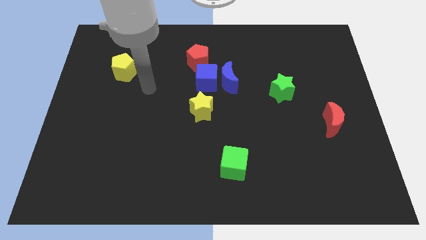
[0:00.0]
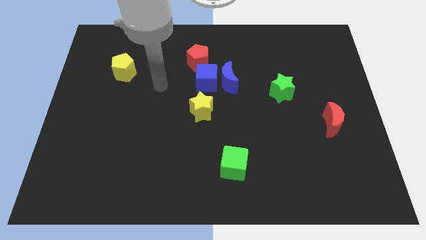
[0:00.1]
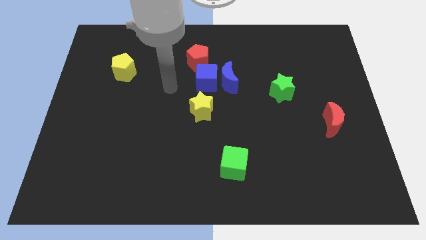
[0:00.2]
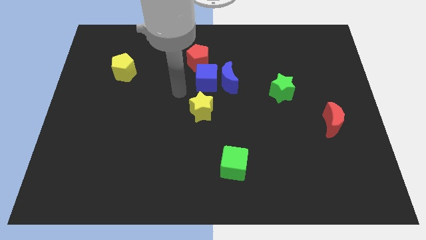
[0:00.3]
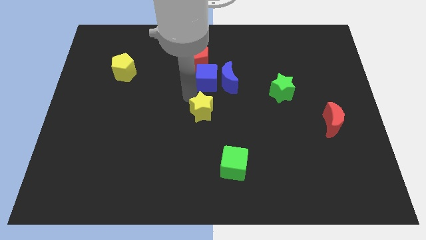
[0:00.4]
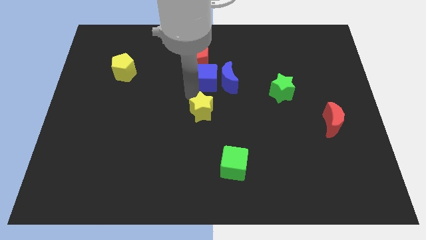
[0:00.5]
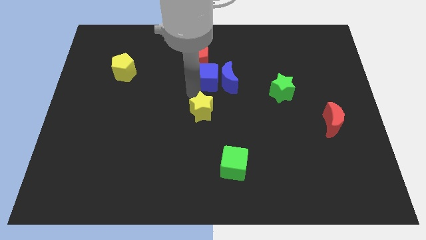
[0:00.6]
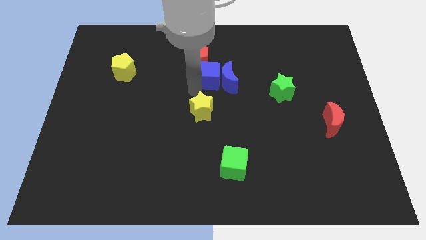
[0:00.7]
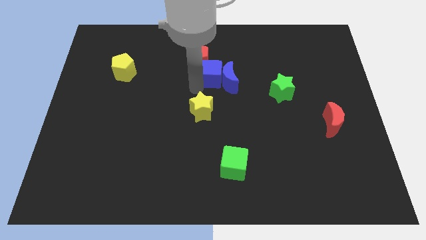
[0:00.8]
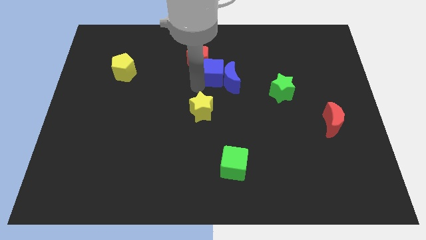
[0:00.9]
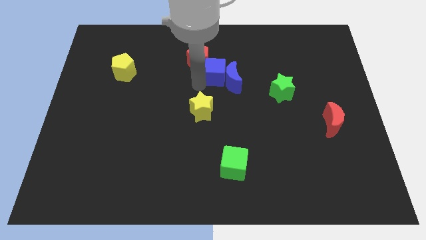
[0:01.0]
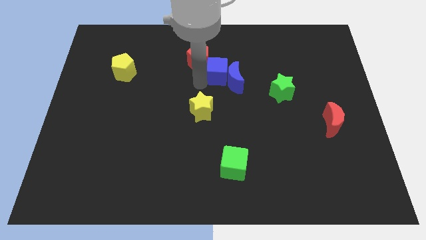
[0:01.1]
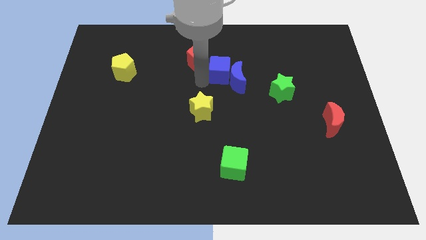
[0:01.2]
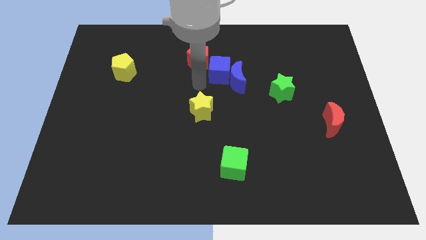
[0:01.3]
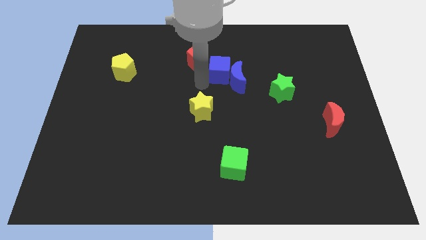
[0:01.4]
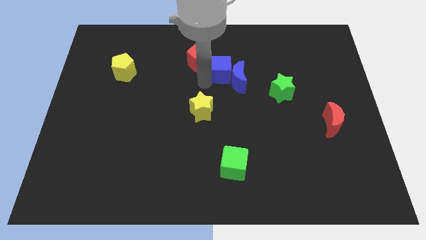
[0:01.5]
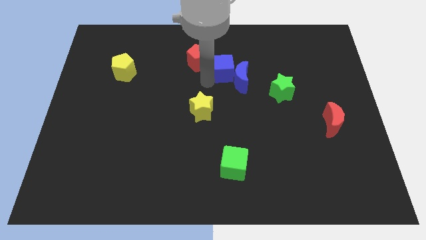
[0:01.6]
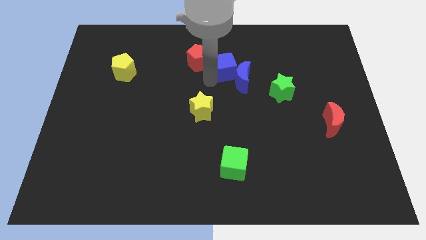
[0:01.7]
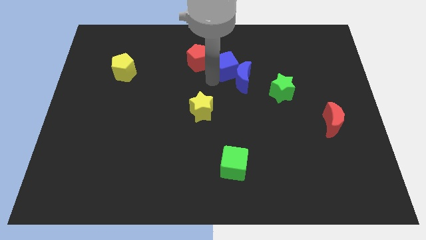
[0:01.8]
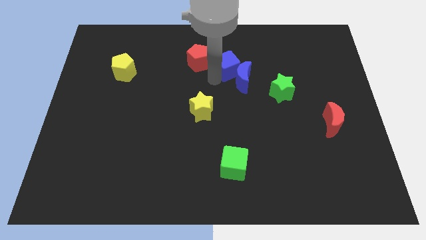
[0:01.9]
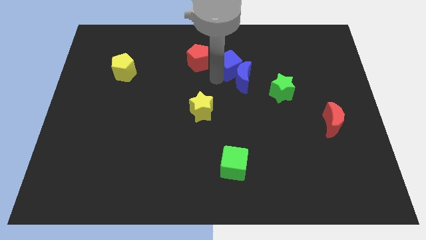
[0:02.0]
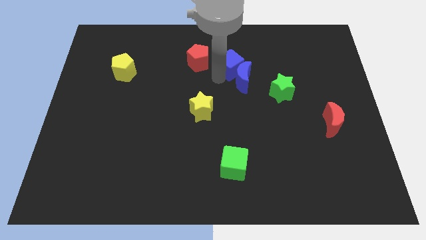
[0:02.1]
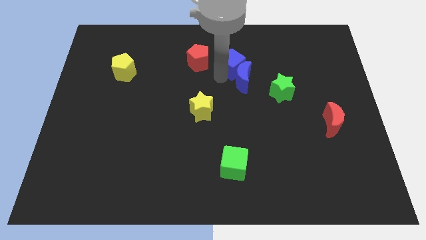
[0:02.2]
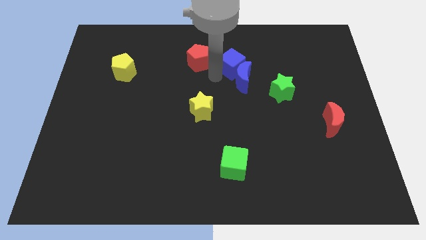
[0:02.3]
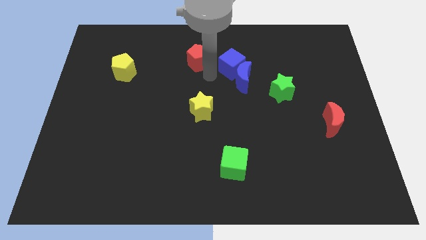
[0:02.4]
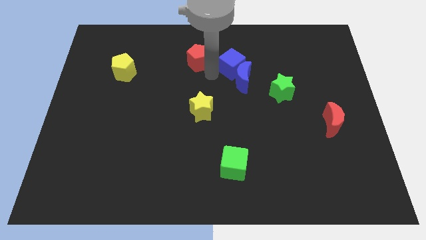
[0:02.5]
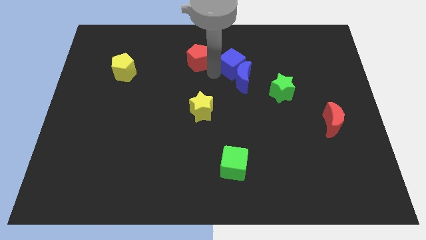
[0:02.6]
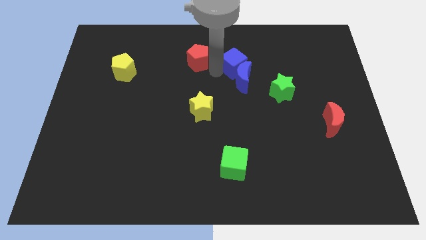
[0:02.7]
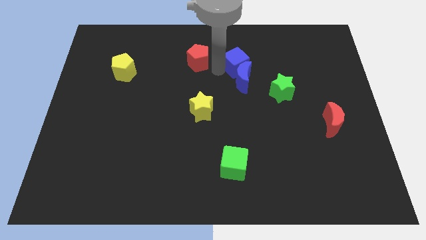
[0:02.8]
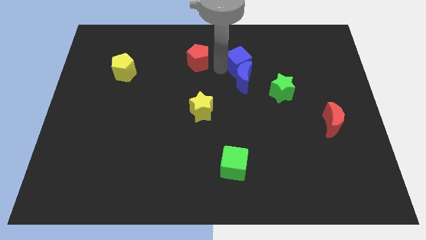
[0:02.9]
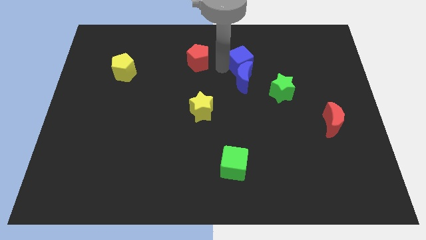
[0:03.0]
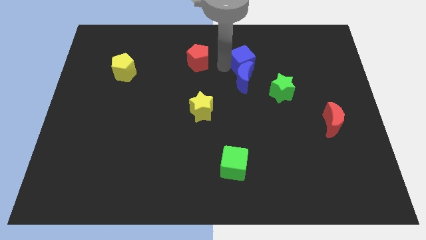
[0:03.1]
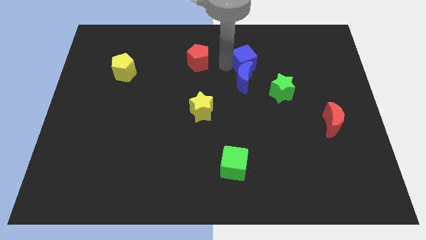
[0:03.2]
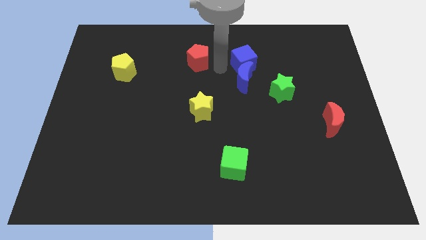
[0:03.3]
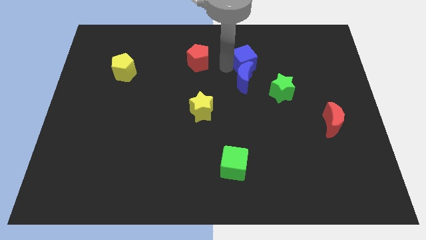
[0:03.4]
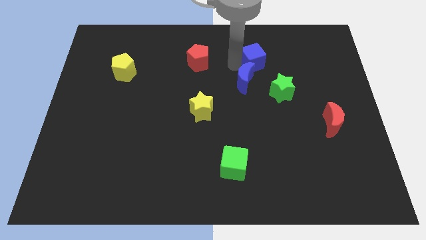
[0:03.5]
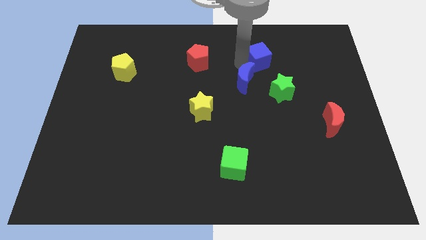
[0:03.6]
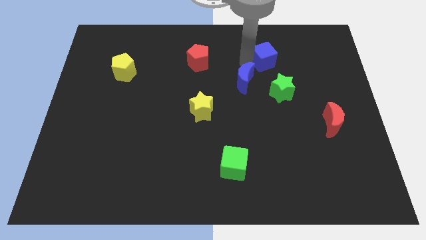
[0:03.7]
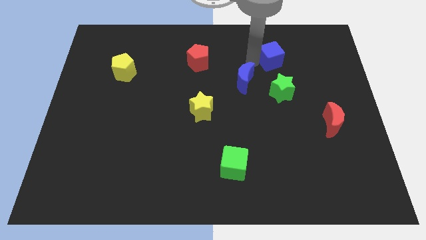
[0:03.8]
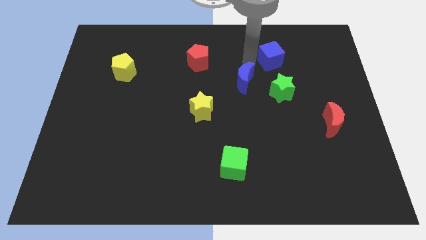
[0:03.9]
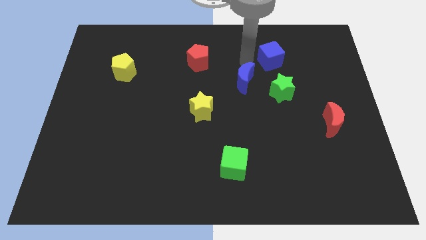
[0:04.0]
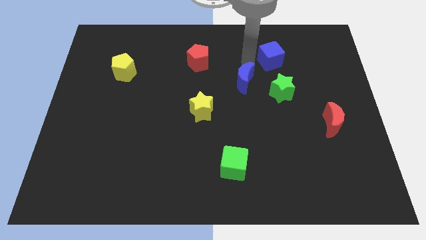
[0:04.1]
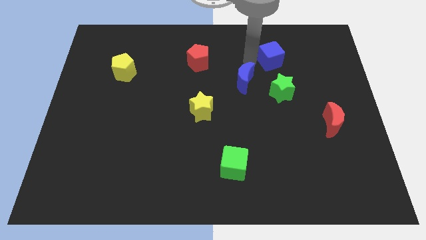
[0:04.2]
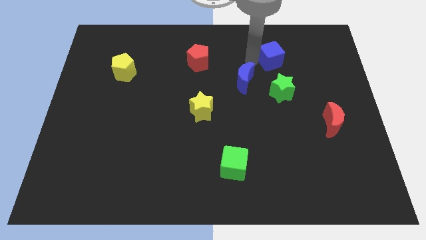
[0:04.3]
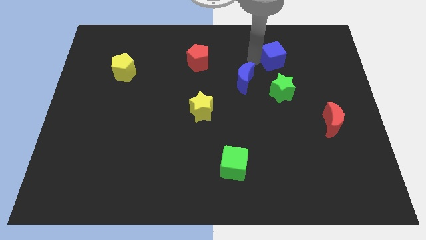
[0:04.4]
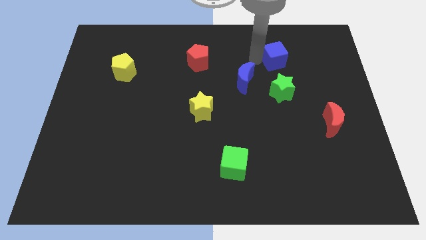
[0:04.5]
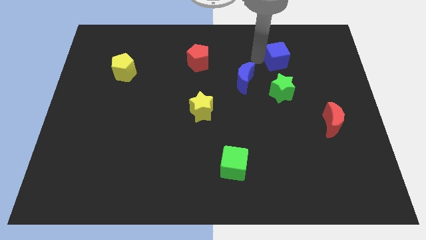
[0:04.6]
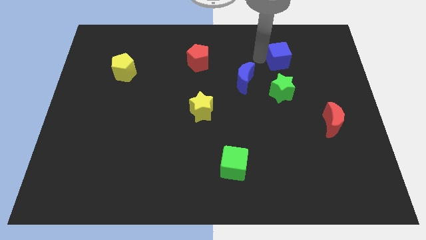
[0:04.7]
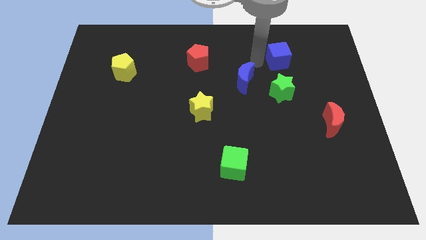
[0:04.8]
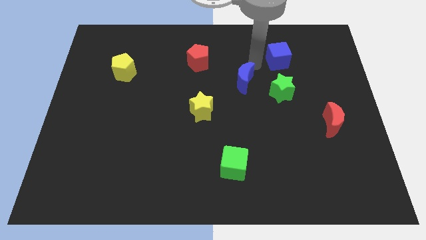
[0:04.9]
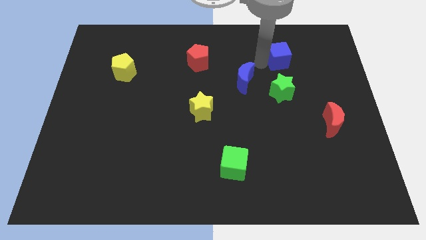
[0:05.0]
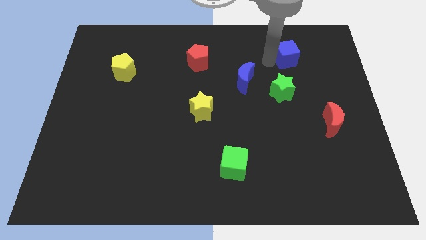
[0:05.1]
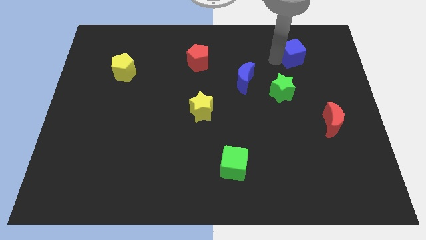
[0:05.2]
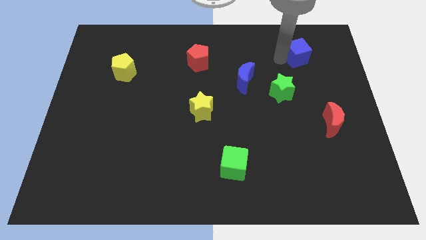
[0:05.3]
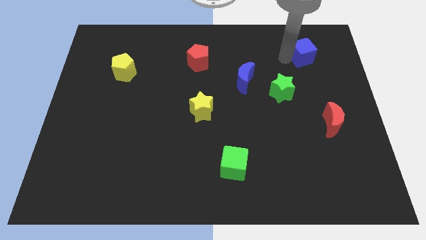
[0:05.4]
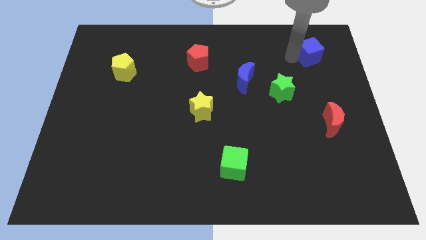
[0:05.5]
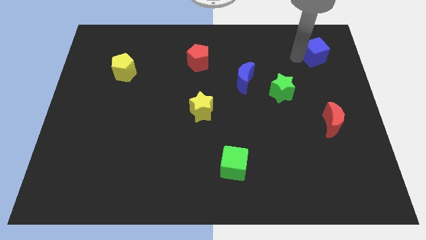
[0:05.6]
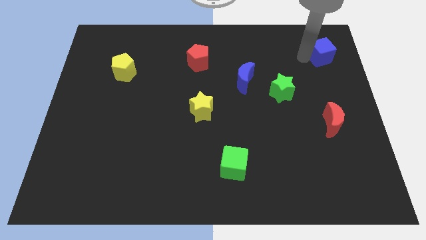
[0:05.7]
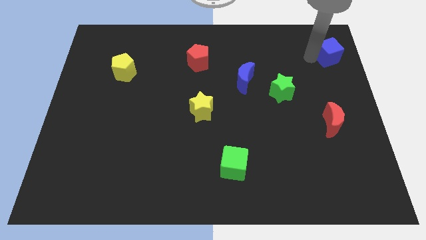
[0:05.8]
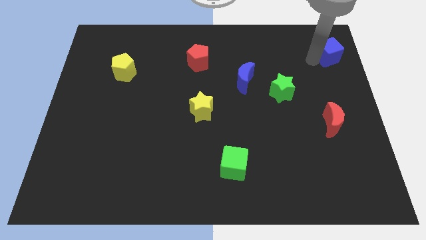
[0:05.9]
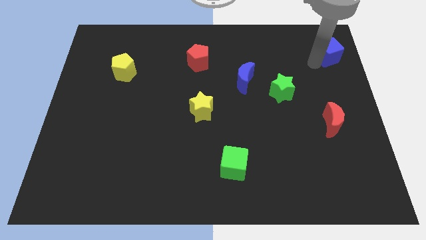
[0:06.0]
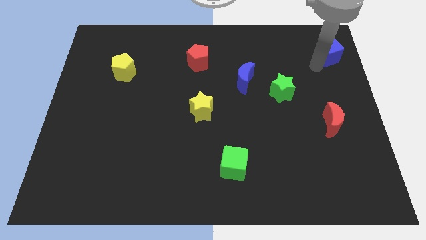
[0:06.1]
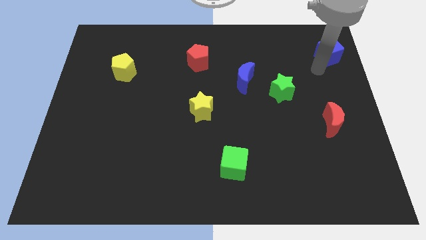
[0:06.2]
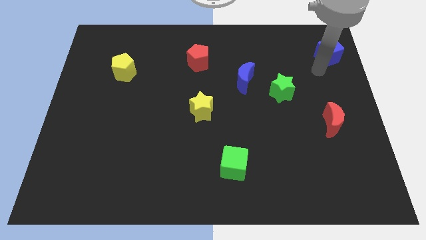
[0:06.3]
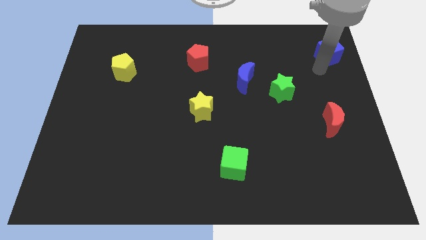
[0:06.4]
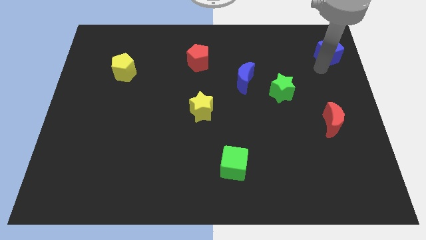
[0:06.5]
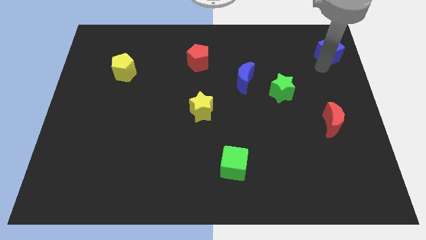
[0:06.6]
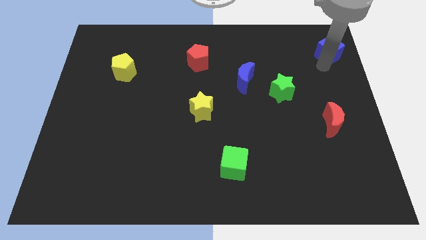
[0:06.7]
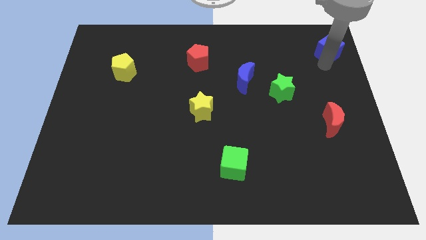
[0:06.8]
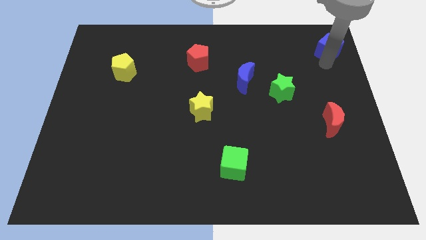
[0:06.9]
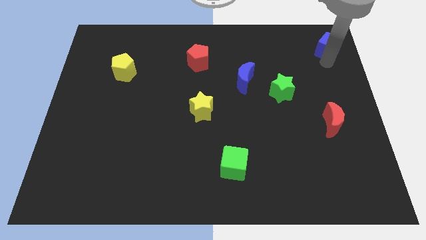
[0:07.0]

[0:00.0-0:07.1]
push the blue cube to the top right
